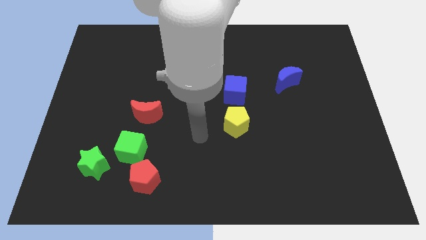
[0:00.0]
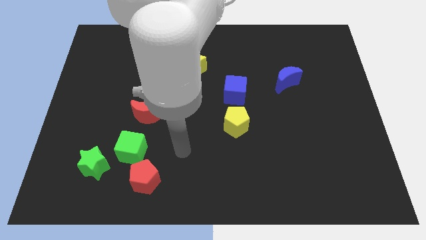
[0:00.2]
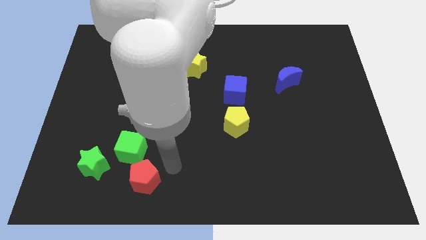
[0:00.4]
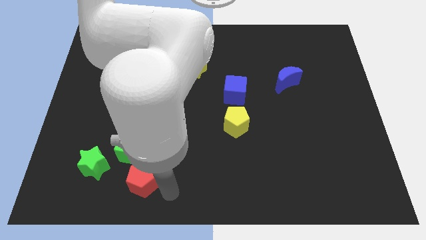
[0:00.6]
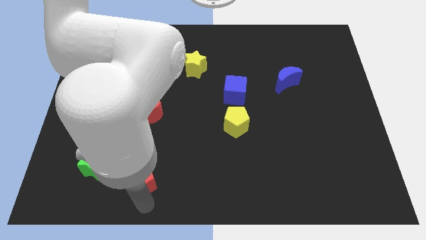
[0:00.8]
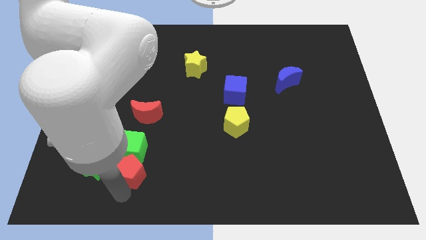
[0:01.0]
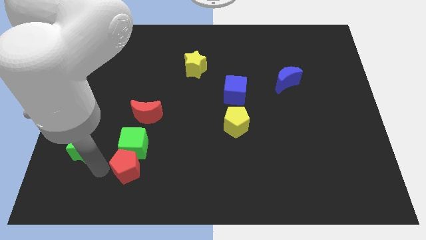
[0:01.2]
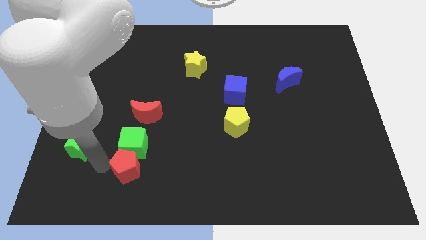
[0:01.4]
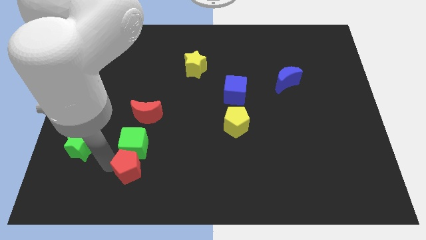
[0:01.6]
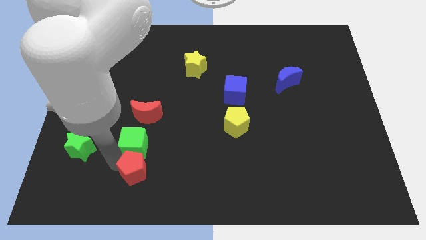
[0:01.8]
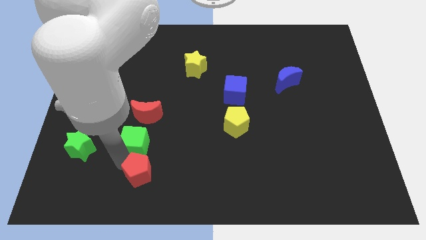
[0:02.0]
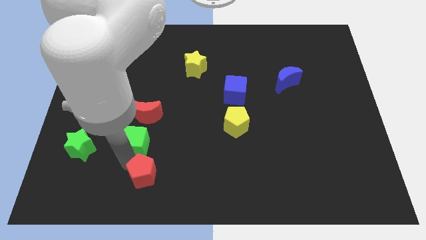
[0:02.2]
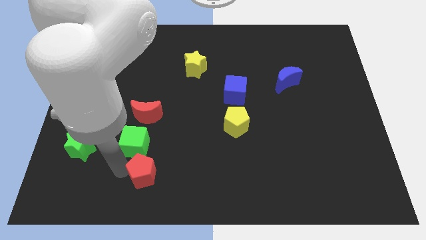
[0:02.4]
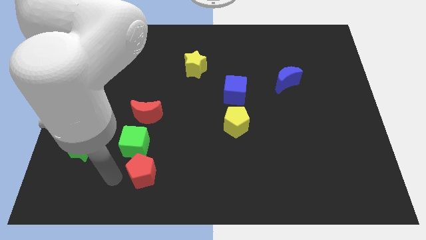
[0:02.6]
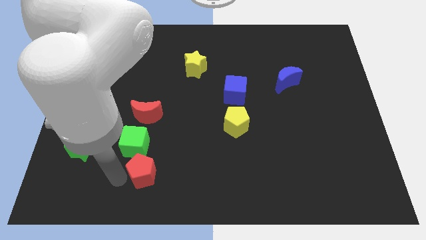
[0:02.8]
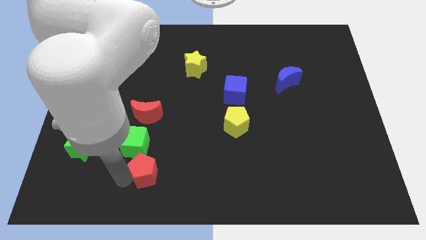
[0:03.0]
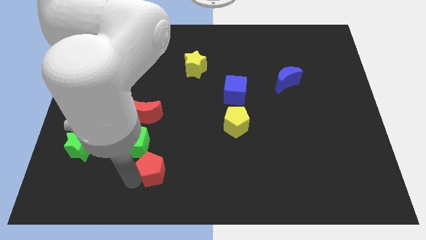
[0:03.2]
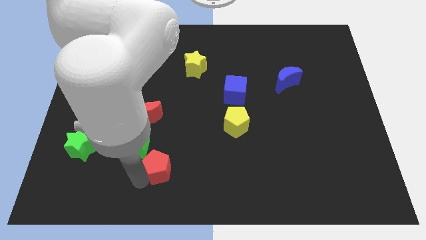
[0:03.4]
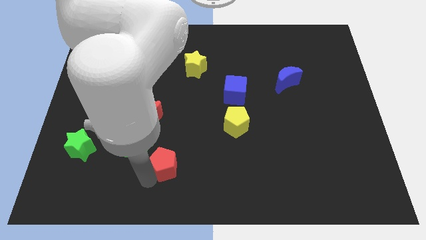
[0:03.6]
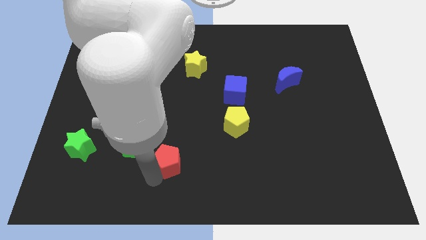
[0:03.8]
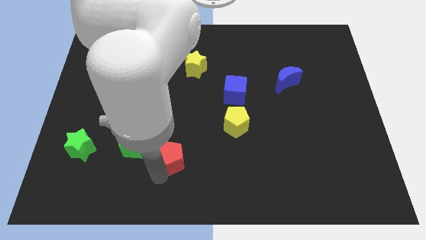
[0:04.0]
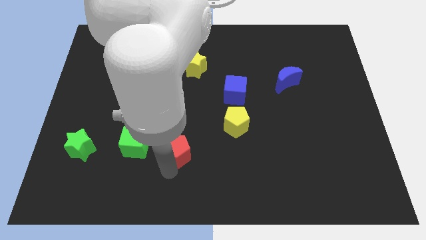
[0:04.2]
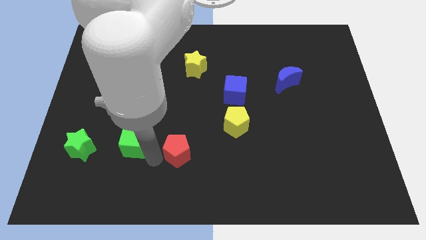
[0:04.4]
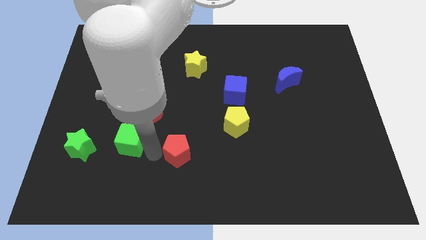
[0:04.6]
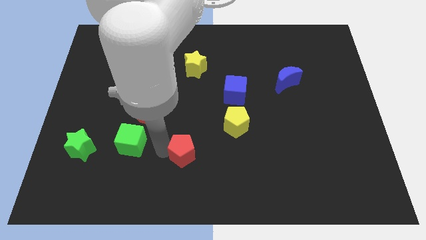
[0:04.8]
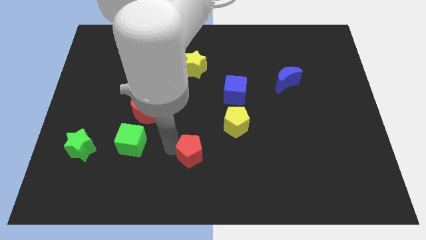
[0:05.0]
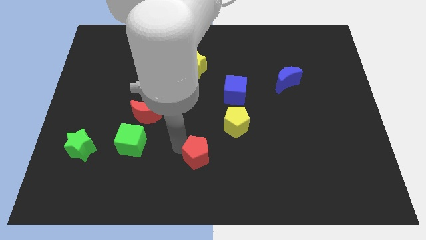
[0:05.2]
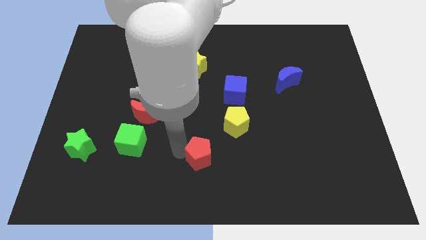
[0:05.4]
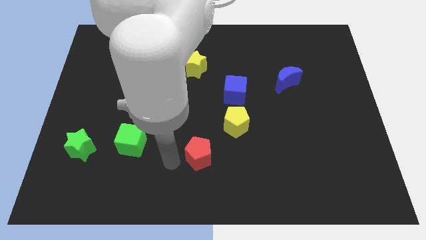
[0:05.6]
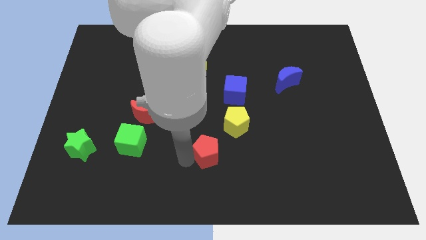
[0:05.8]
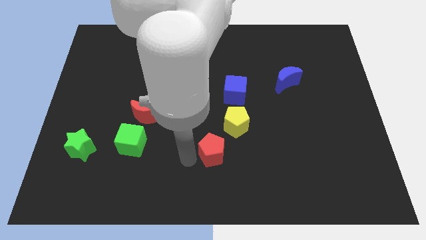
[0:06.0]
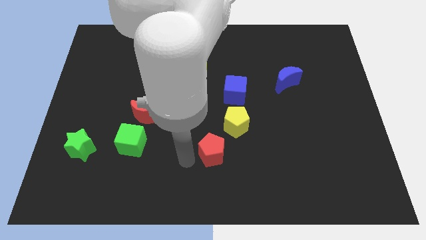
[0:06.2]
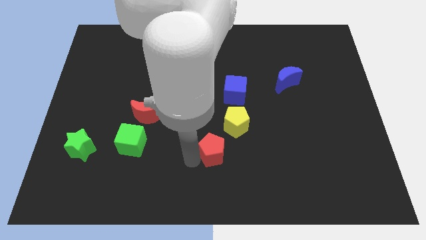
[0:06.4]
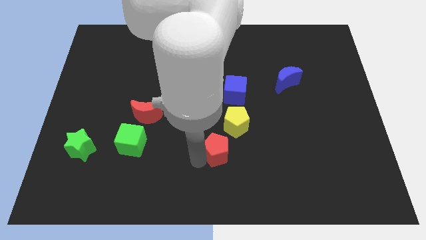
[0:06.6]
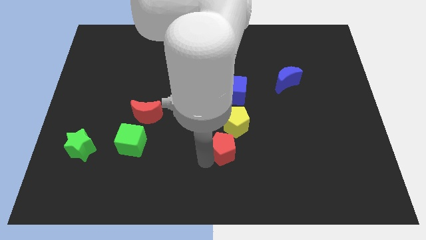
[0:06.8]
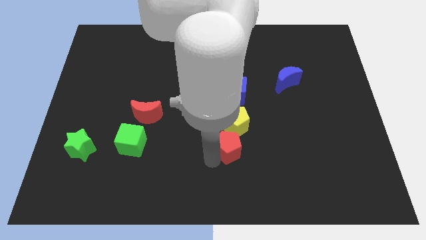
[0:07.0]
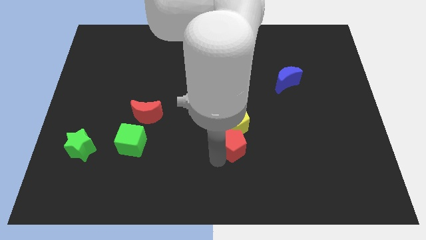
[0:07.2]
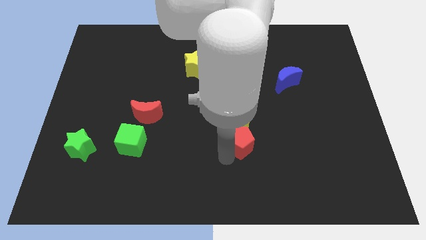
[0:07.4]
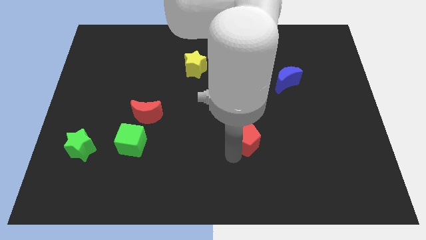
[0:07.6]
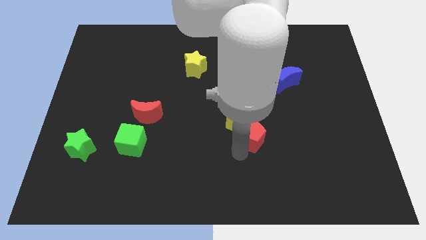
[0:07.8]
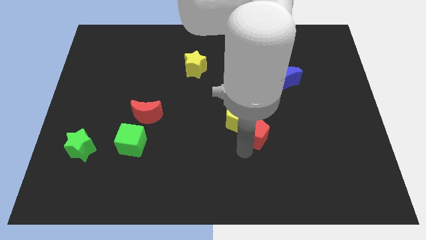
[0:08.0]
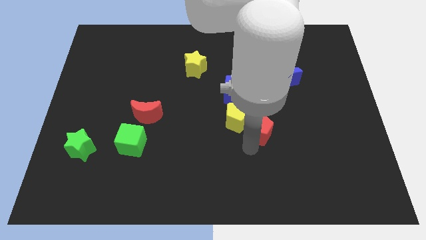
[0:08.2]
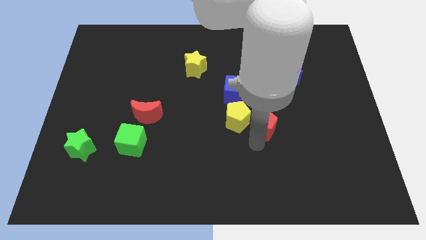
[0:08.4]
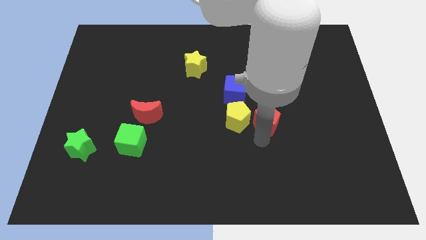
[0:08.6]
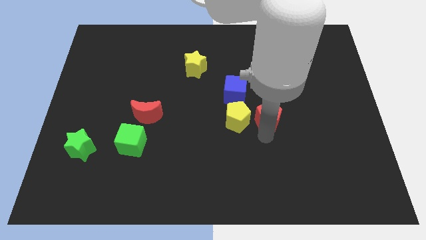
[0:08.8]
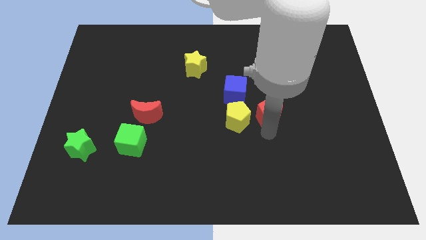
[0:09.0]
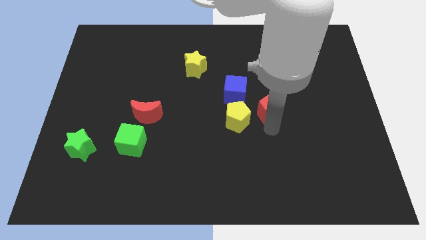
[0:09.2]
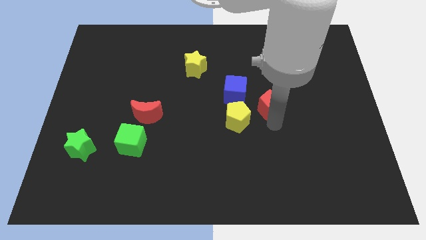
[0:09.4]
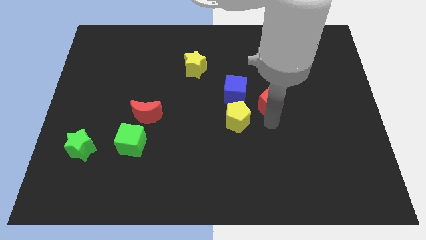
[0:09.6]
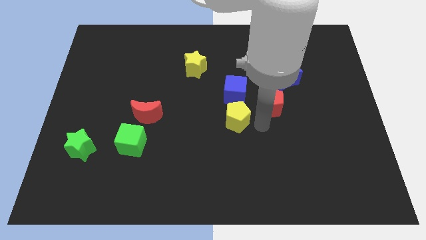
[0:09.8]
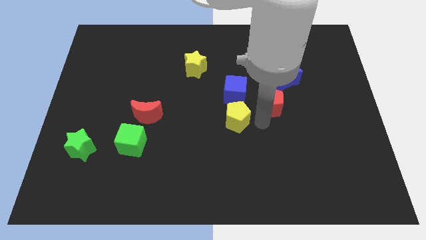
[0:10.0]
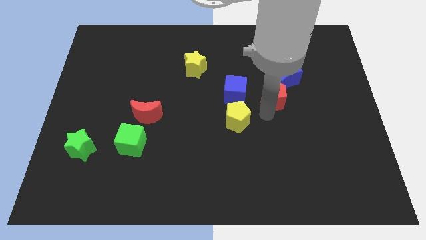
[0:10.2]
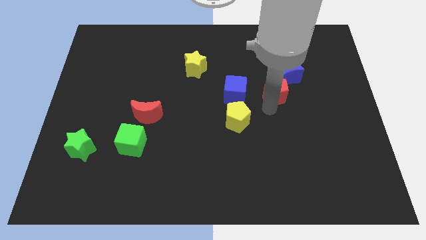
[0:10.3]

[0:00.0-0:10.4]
push the red pentagon close to the blue moon

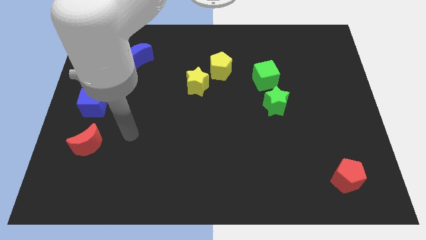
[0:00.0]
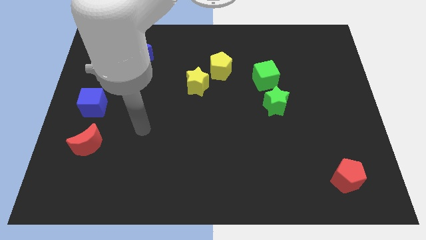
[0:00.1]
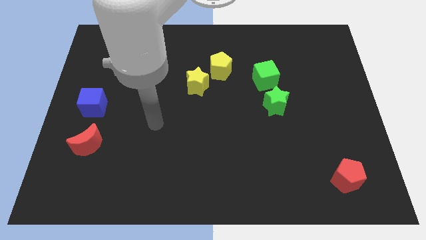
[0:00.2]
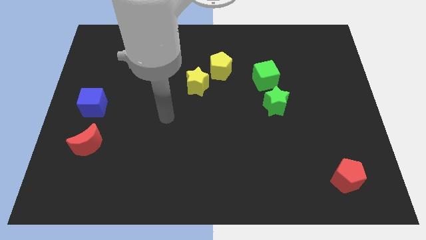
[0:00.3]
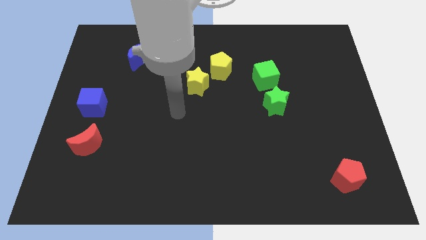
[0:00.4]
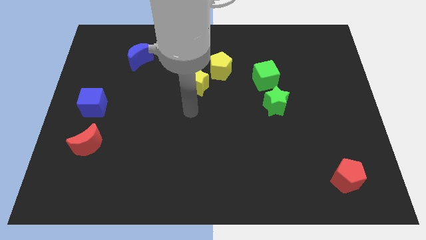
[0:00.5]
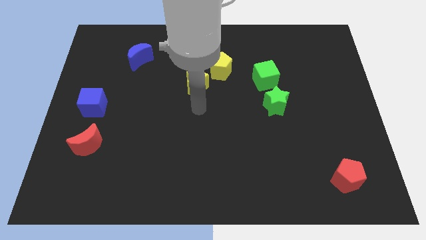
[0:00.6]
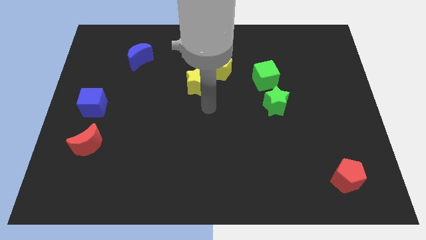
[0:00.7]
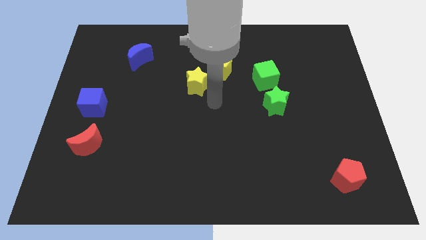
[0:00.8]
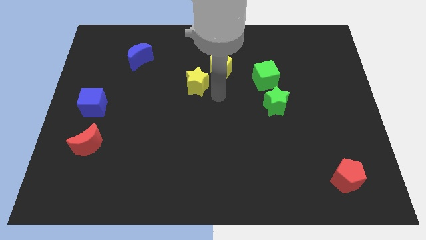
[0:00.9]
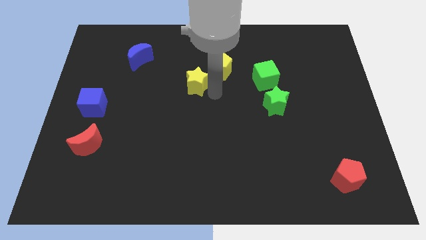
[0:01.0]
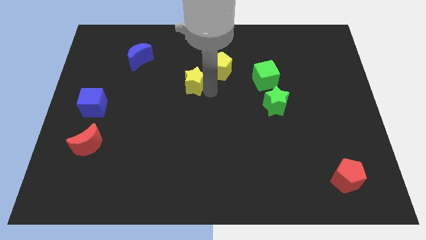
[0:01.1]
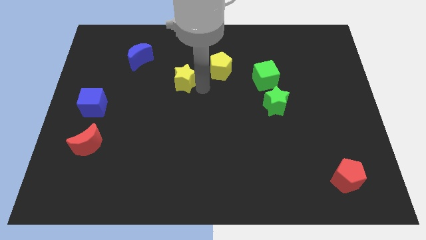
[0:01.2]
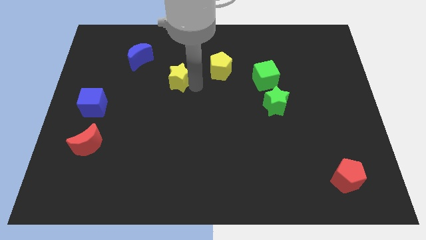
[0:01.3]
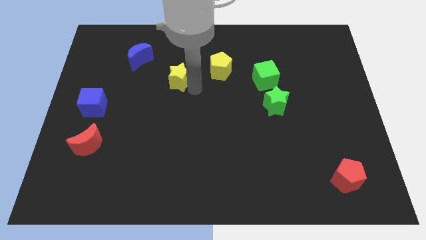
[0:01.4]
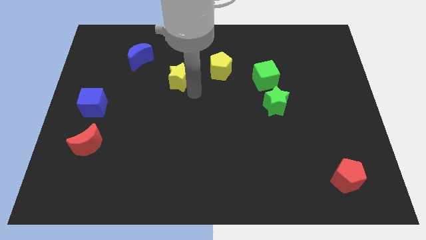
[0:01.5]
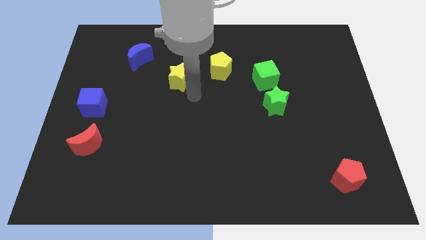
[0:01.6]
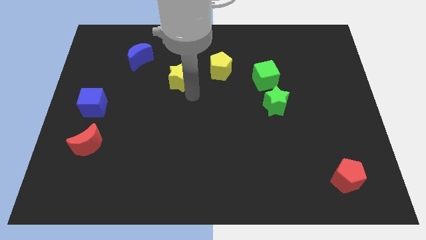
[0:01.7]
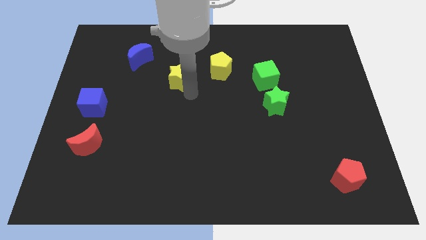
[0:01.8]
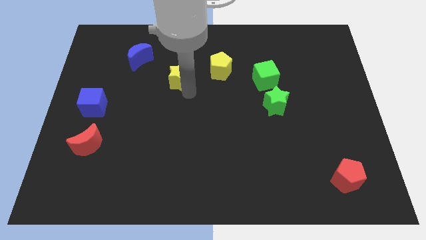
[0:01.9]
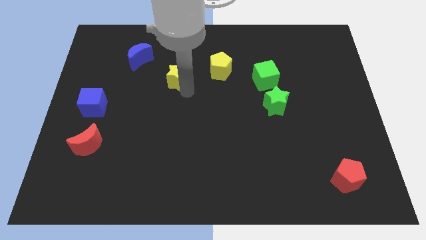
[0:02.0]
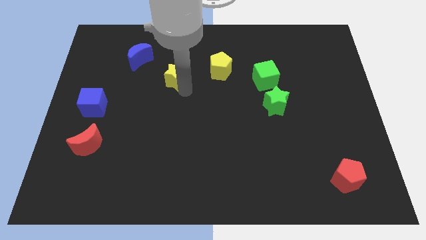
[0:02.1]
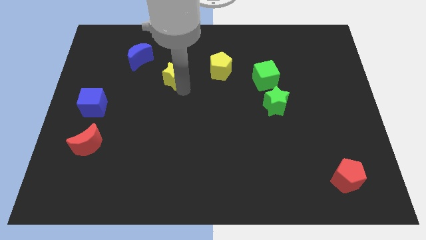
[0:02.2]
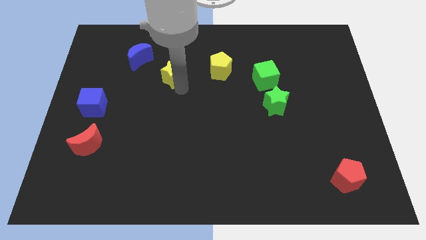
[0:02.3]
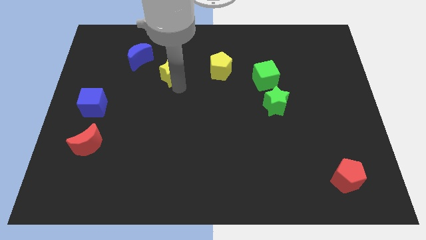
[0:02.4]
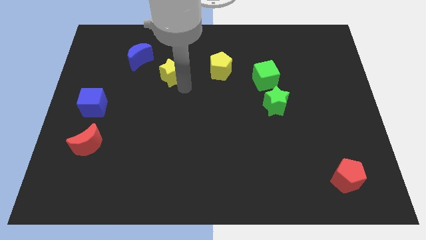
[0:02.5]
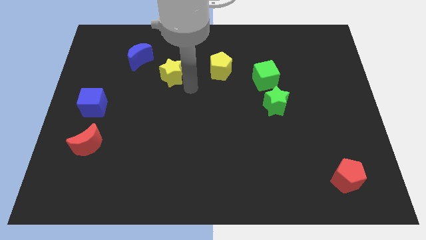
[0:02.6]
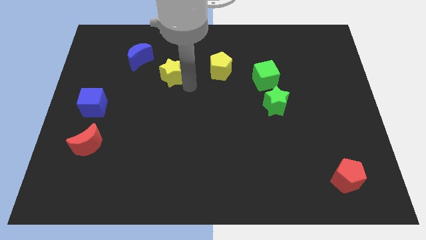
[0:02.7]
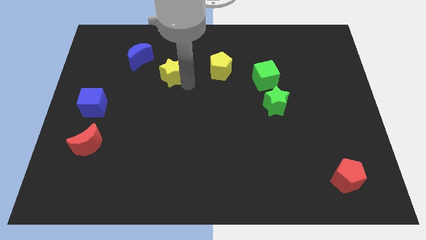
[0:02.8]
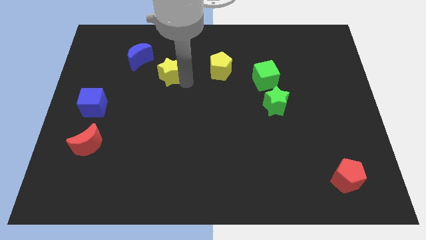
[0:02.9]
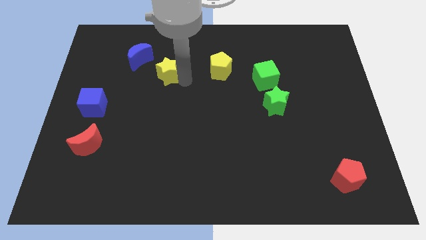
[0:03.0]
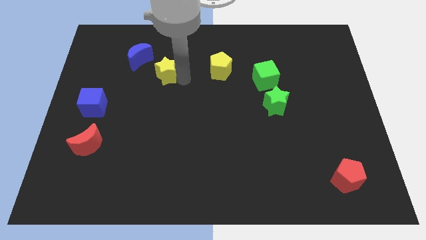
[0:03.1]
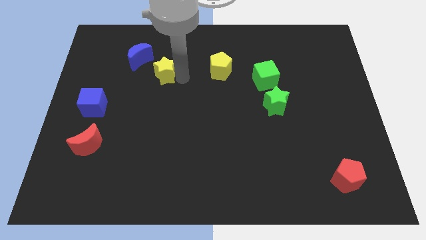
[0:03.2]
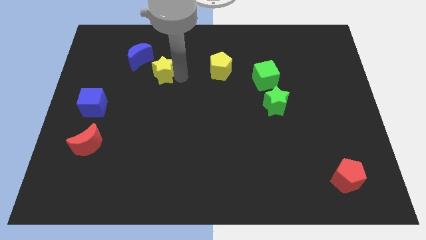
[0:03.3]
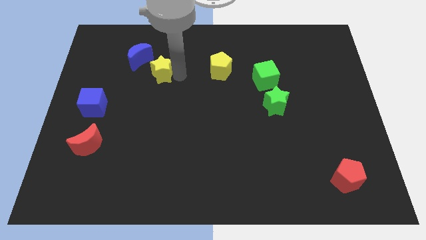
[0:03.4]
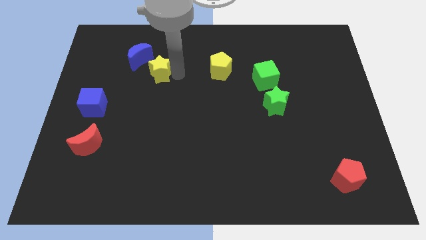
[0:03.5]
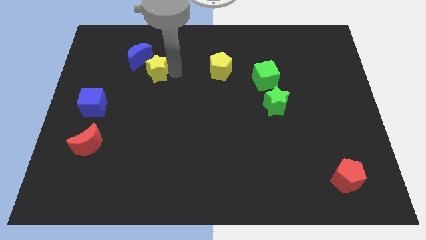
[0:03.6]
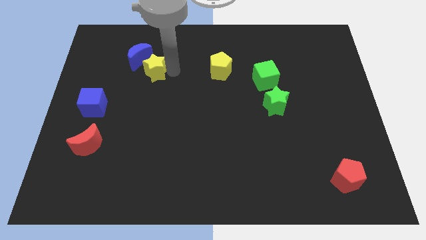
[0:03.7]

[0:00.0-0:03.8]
push the yellow star towards the blue moon
